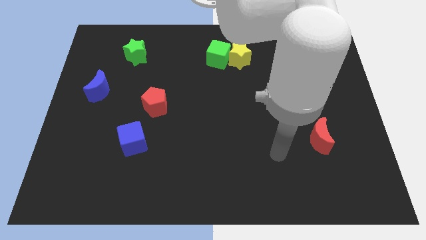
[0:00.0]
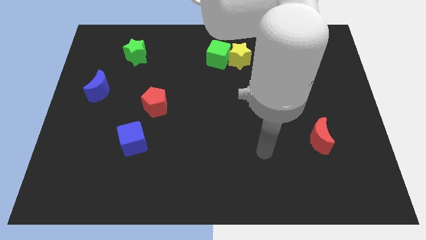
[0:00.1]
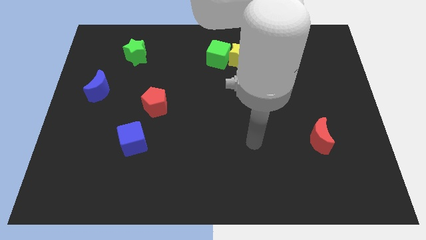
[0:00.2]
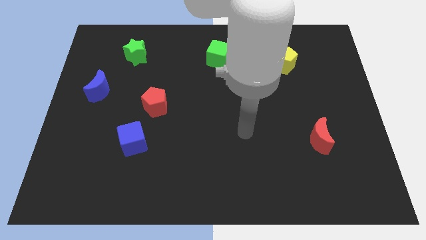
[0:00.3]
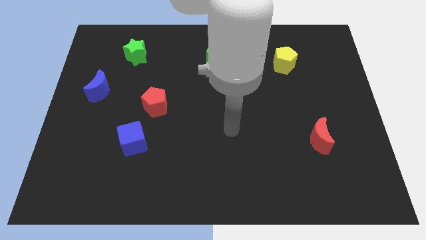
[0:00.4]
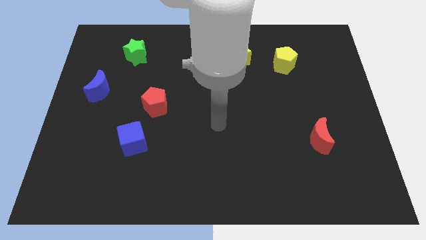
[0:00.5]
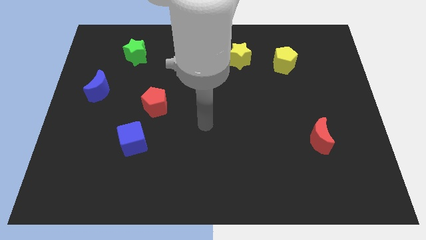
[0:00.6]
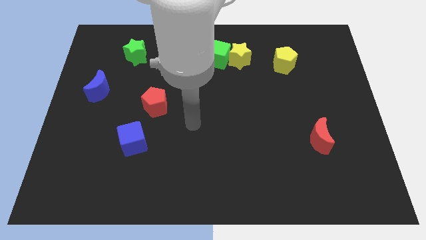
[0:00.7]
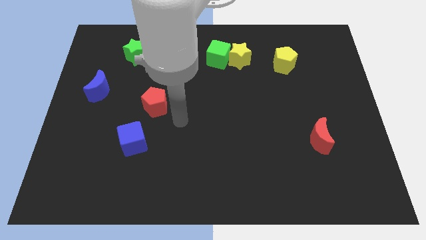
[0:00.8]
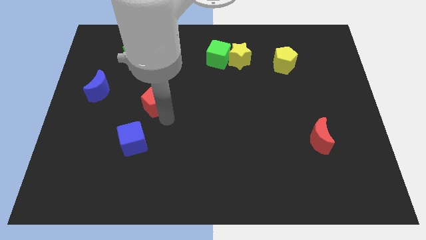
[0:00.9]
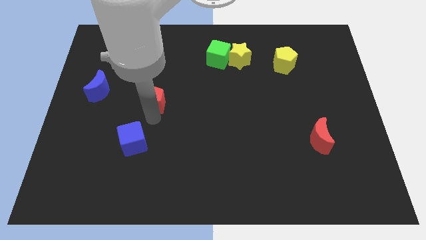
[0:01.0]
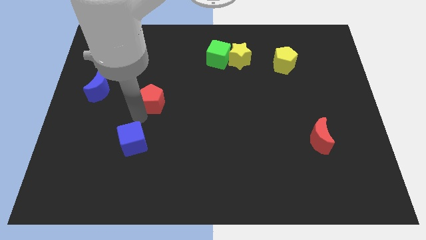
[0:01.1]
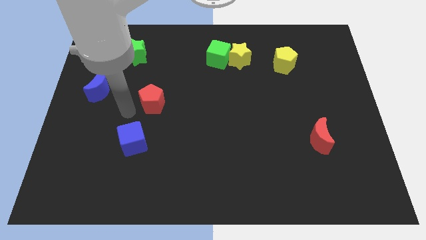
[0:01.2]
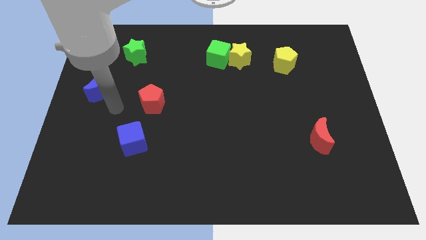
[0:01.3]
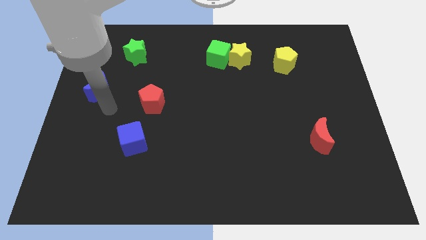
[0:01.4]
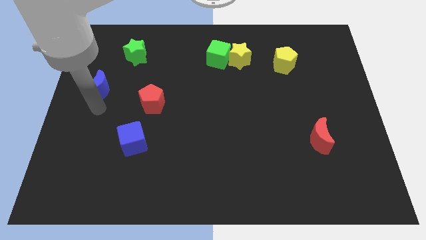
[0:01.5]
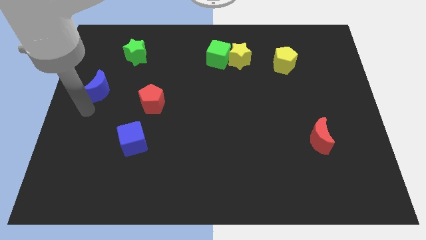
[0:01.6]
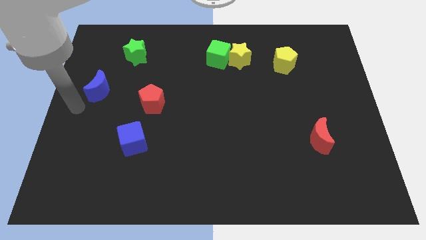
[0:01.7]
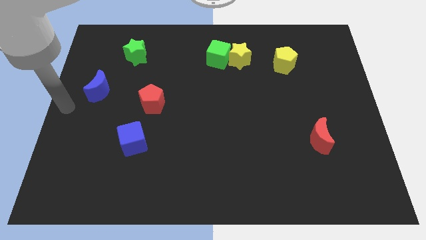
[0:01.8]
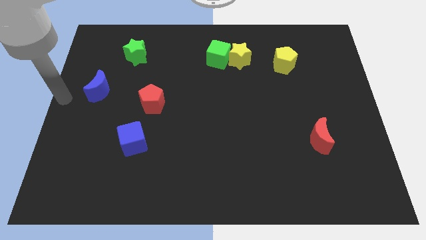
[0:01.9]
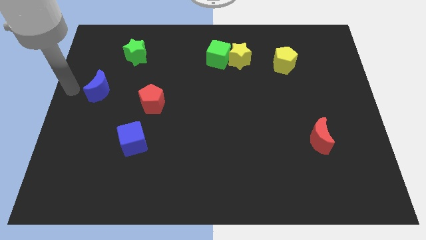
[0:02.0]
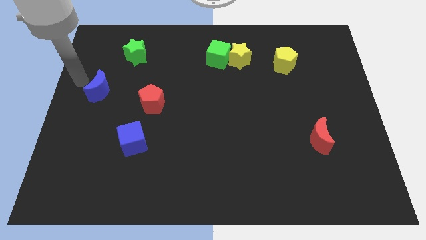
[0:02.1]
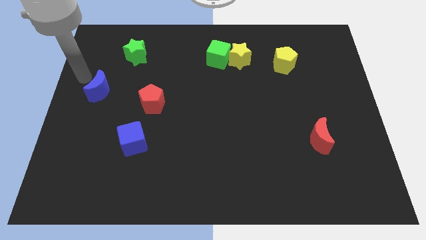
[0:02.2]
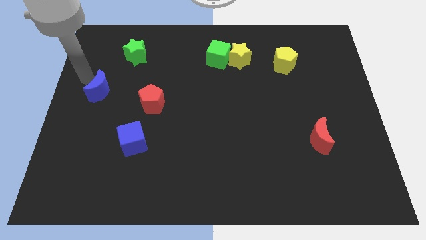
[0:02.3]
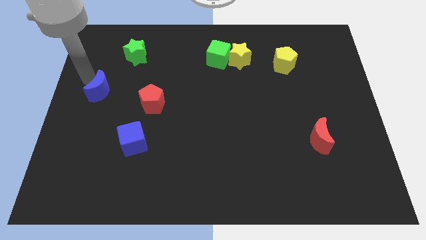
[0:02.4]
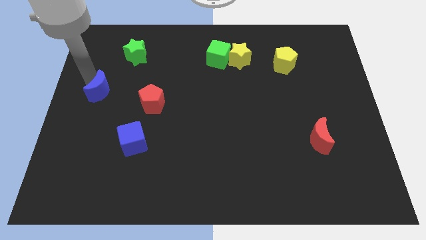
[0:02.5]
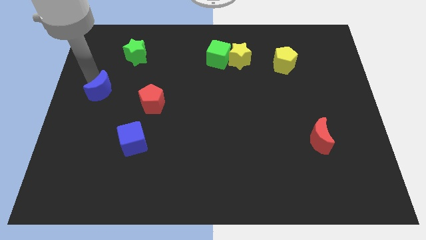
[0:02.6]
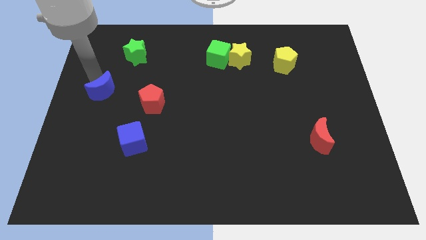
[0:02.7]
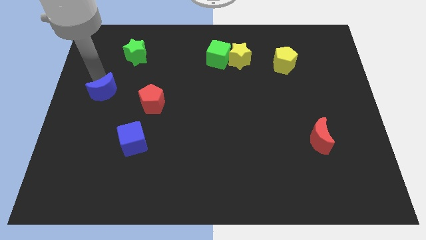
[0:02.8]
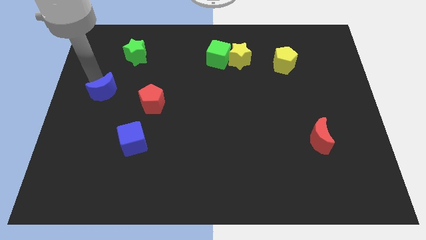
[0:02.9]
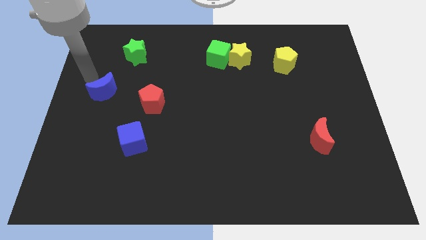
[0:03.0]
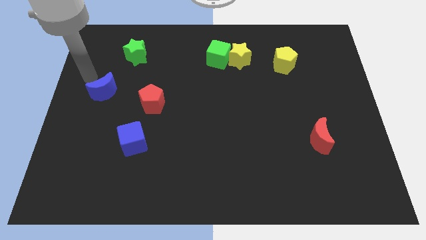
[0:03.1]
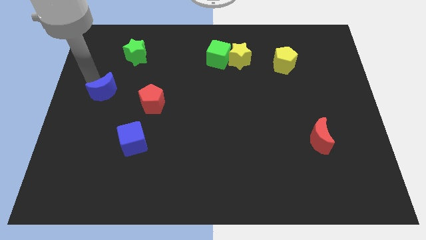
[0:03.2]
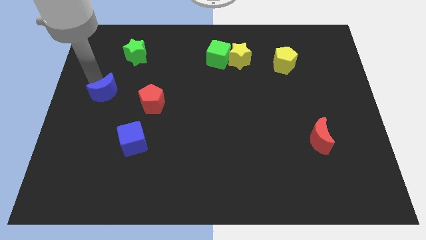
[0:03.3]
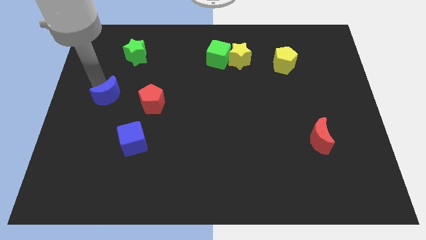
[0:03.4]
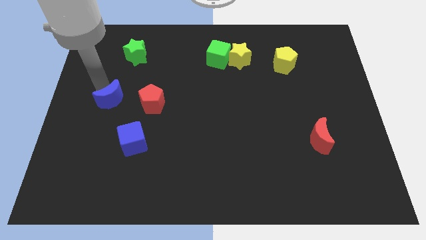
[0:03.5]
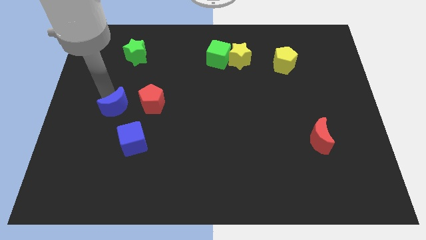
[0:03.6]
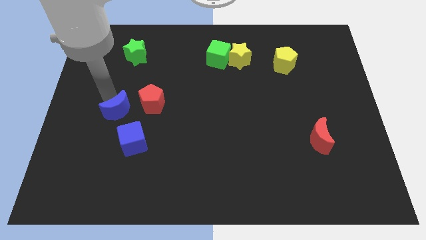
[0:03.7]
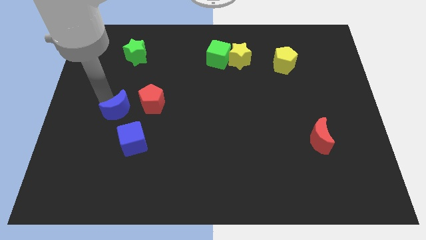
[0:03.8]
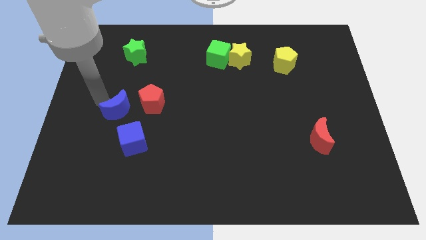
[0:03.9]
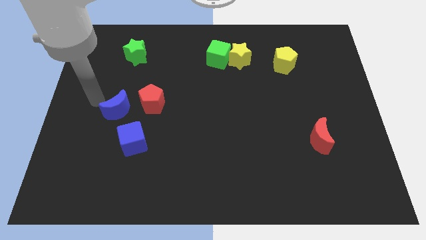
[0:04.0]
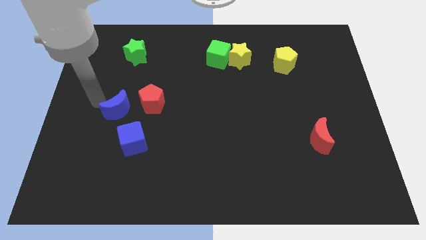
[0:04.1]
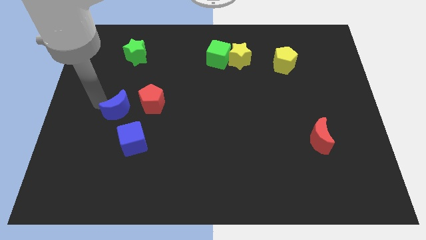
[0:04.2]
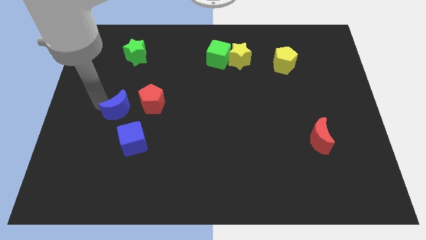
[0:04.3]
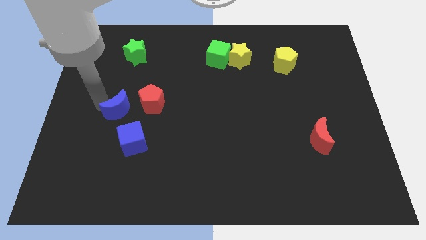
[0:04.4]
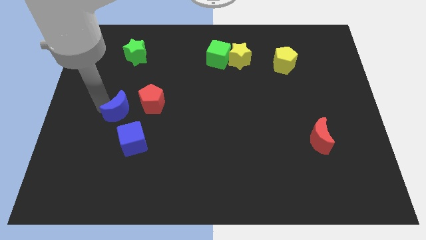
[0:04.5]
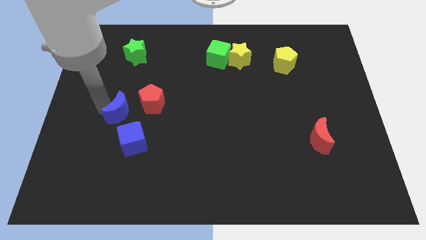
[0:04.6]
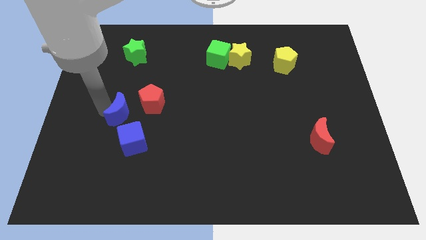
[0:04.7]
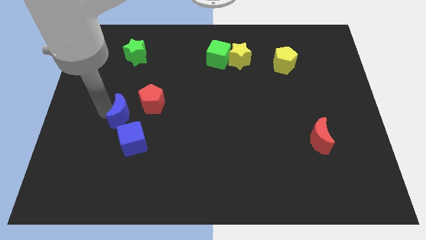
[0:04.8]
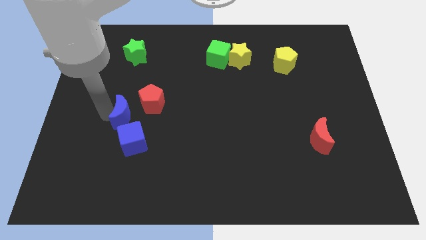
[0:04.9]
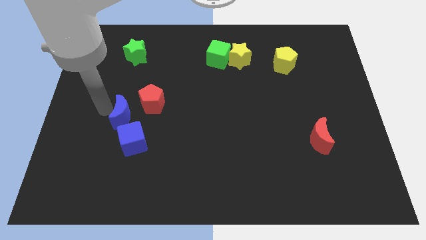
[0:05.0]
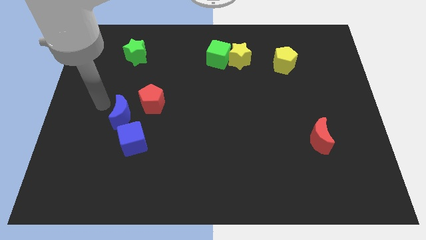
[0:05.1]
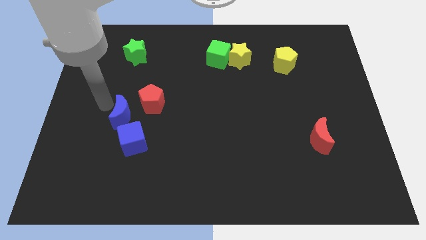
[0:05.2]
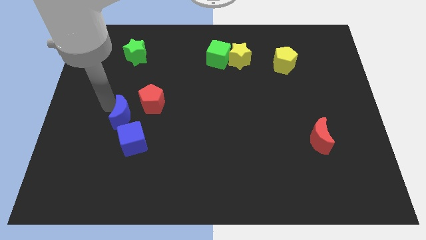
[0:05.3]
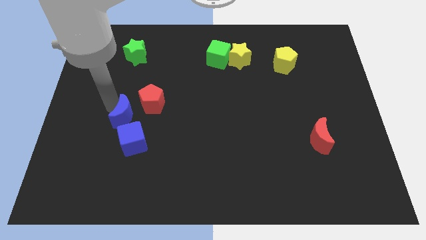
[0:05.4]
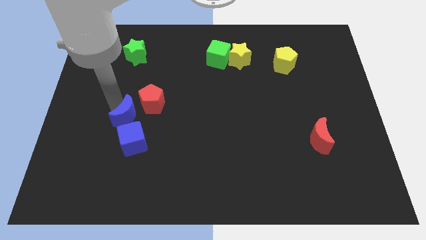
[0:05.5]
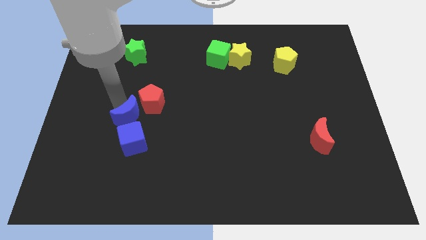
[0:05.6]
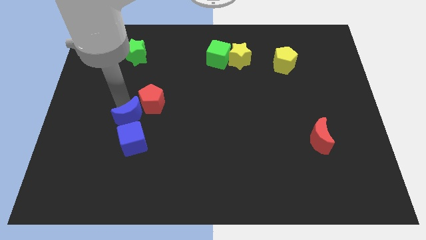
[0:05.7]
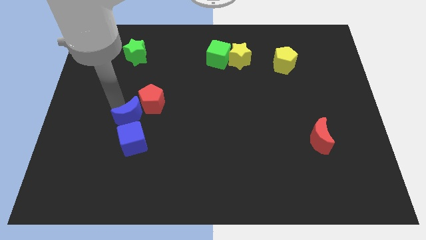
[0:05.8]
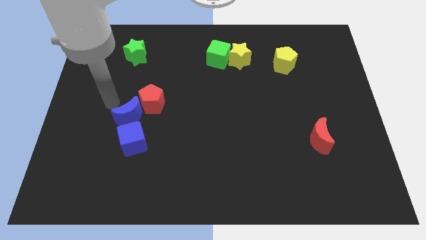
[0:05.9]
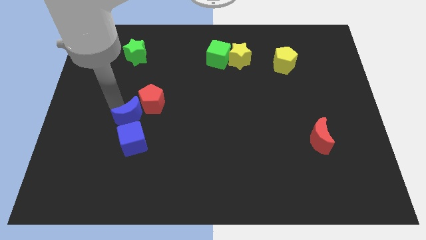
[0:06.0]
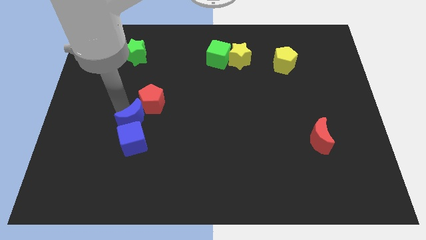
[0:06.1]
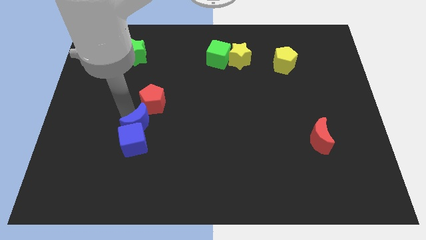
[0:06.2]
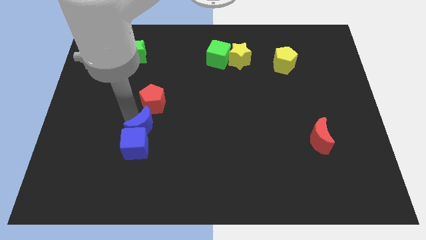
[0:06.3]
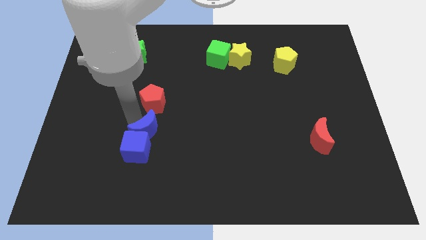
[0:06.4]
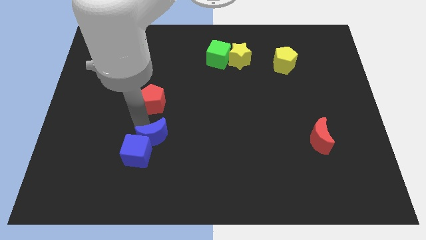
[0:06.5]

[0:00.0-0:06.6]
move the blue moon down and right

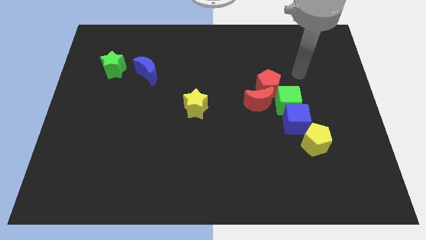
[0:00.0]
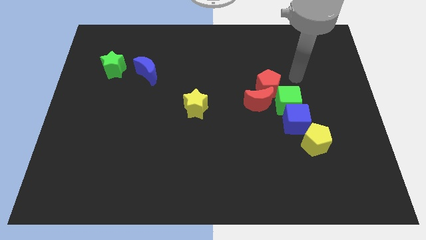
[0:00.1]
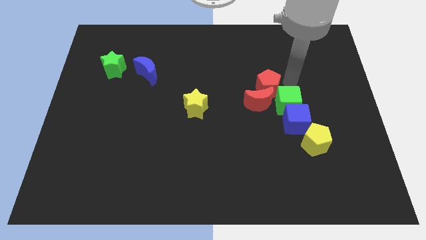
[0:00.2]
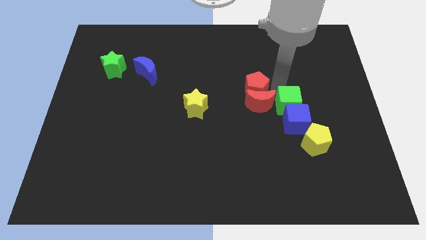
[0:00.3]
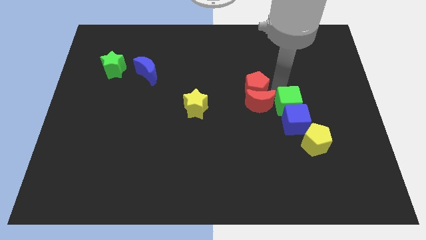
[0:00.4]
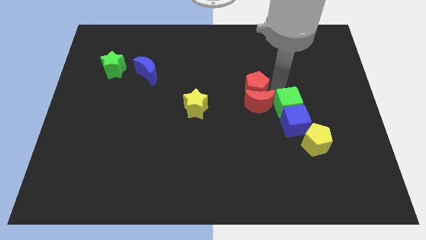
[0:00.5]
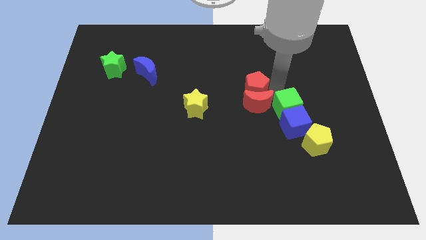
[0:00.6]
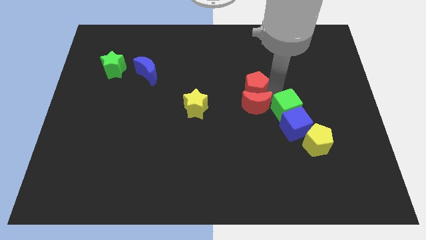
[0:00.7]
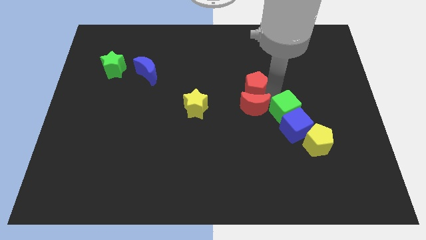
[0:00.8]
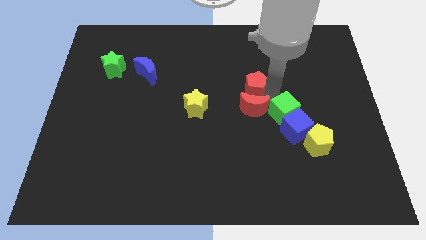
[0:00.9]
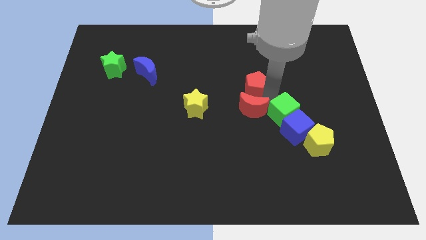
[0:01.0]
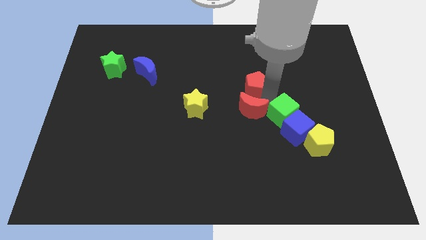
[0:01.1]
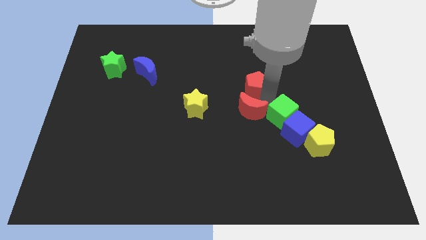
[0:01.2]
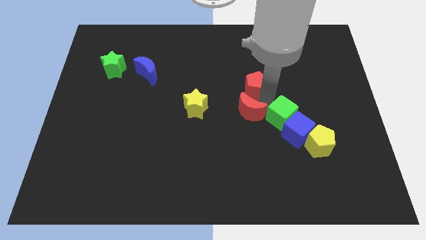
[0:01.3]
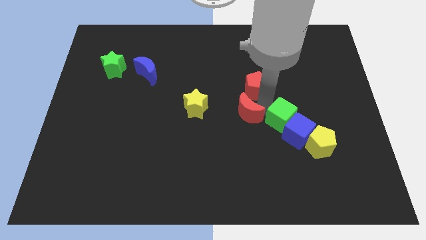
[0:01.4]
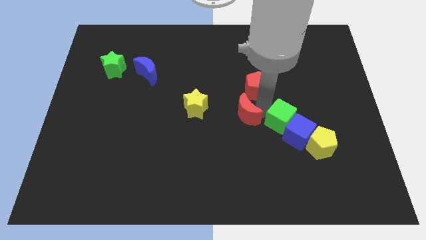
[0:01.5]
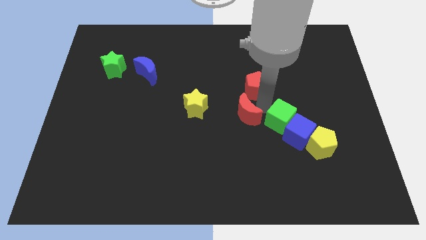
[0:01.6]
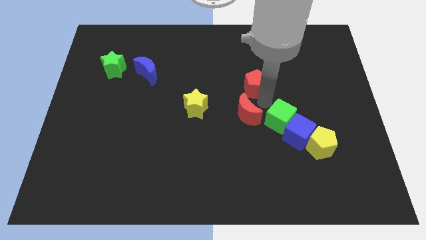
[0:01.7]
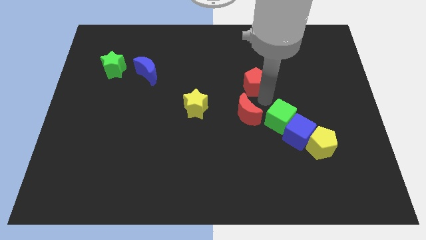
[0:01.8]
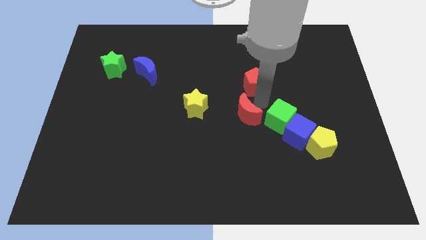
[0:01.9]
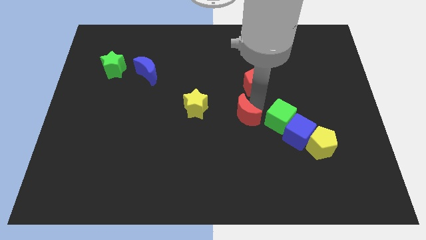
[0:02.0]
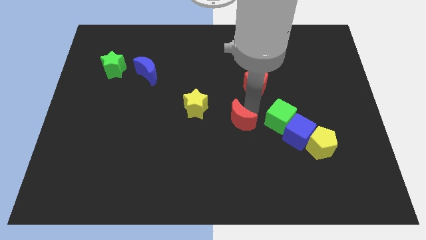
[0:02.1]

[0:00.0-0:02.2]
slide the red moon a bit down and to the left diagonally
